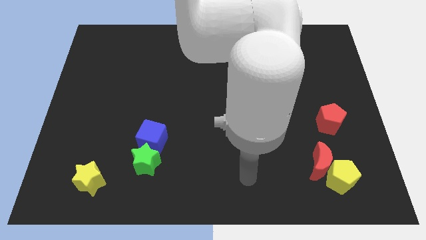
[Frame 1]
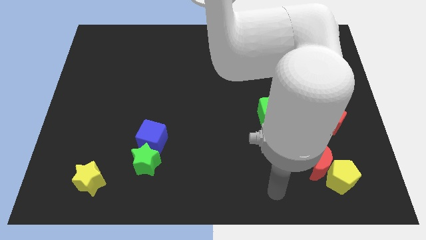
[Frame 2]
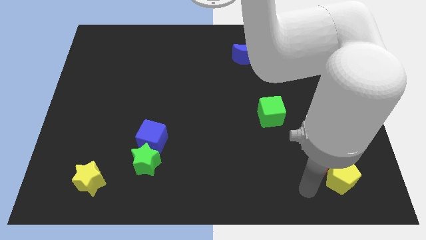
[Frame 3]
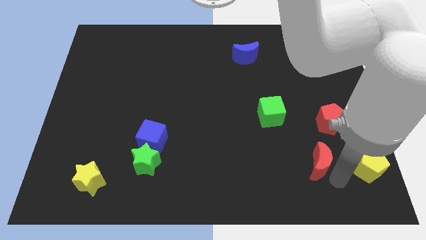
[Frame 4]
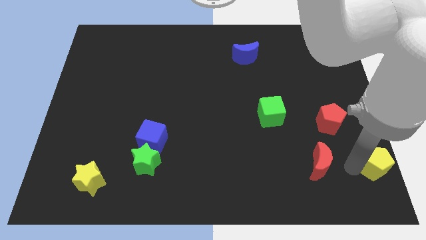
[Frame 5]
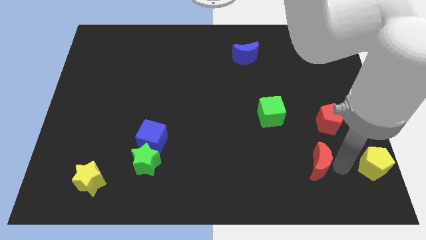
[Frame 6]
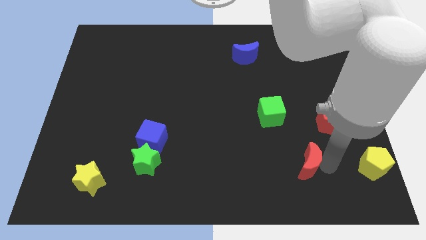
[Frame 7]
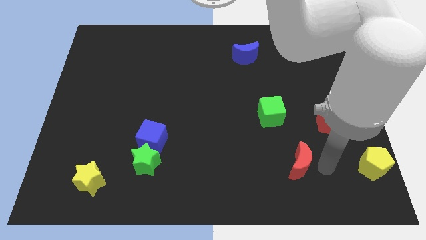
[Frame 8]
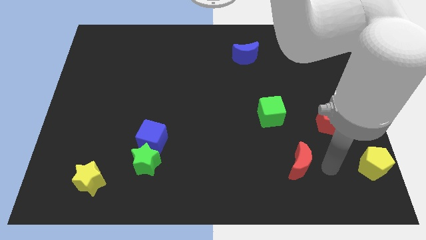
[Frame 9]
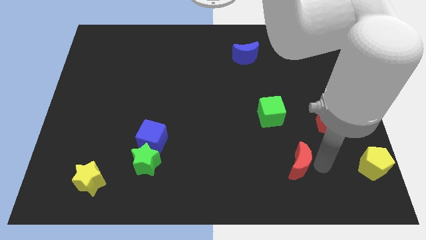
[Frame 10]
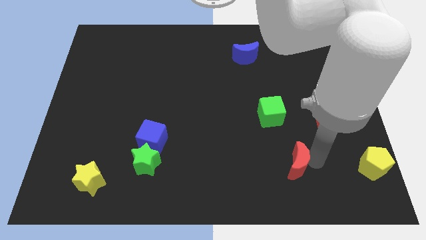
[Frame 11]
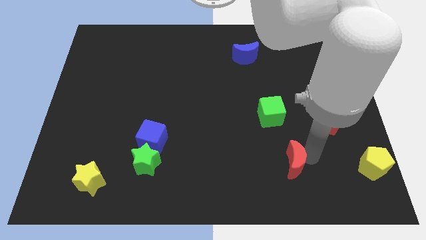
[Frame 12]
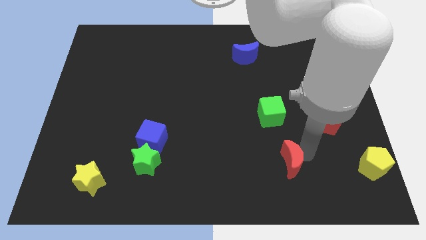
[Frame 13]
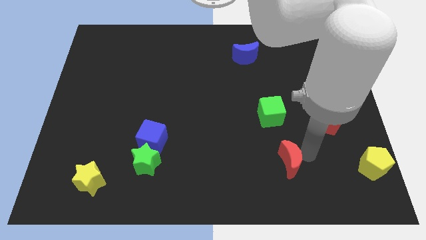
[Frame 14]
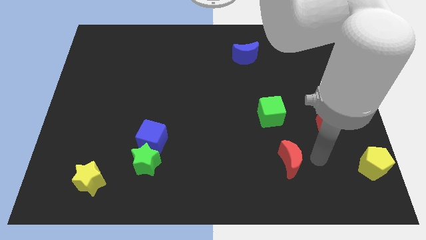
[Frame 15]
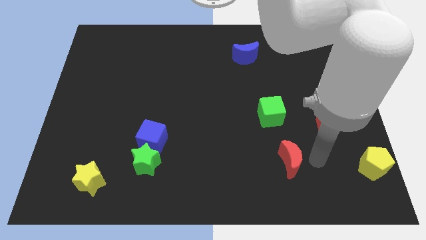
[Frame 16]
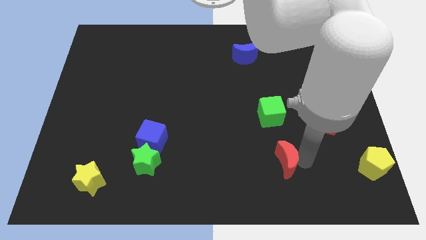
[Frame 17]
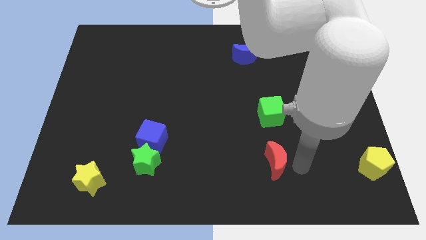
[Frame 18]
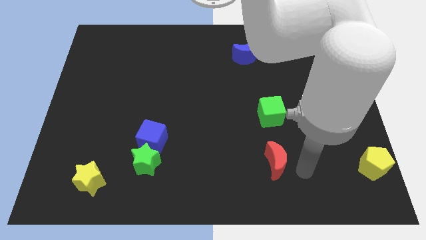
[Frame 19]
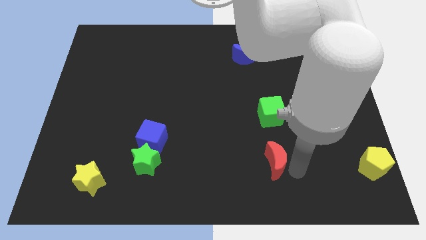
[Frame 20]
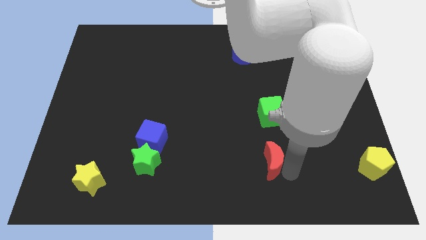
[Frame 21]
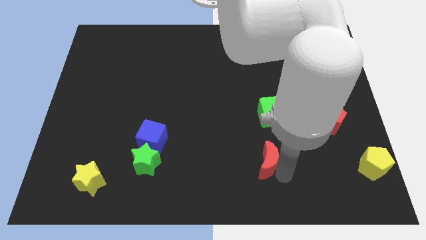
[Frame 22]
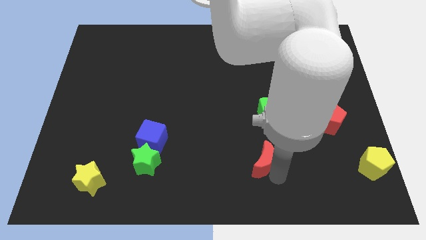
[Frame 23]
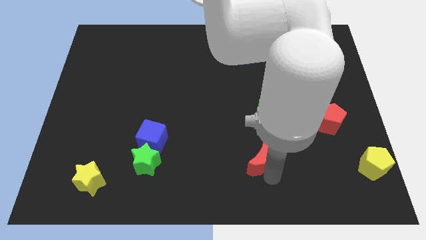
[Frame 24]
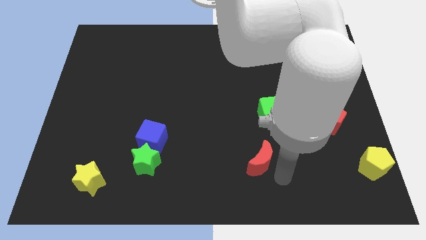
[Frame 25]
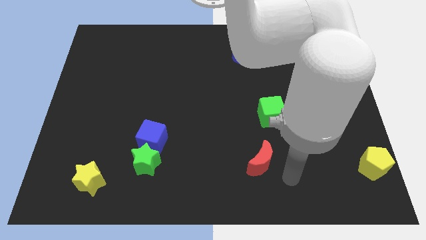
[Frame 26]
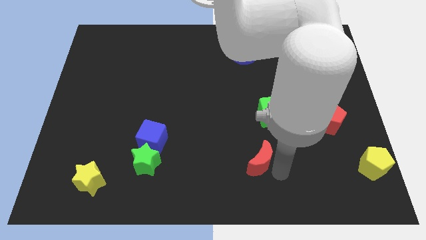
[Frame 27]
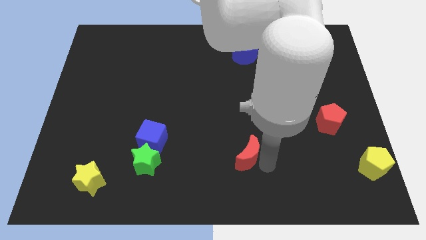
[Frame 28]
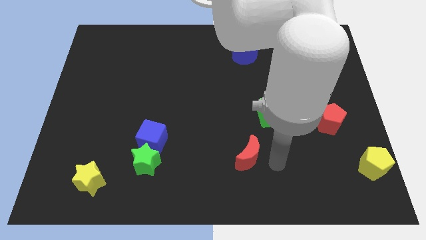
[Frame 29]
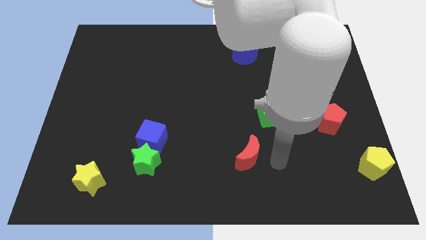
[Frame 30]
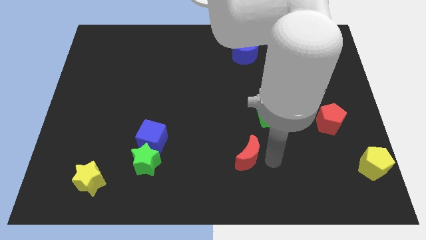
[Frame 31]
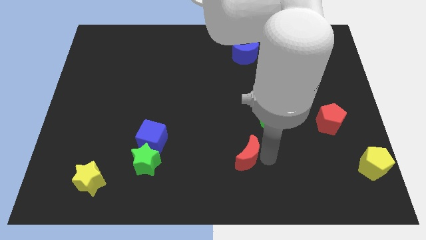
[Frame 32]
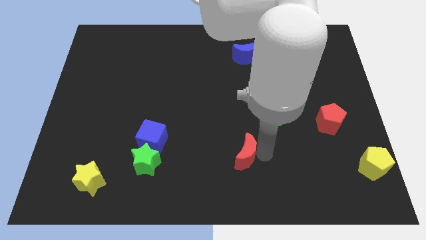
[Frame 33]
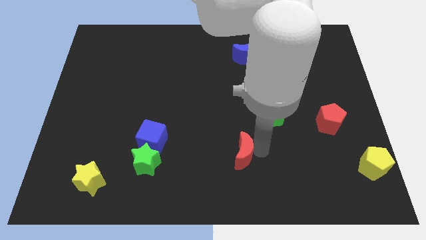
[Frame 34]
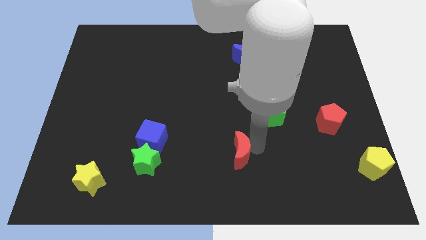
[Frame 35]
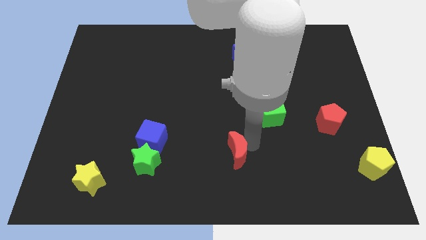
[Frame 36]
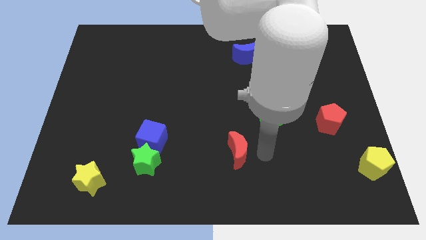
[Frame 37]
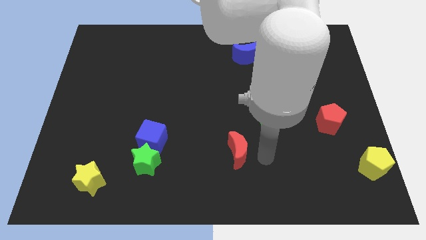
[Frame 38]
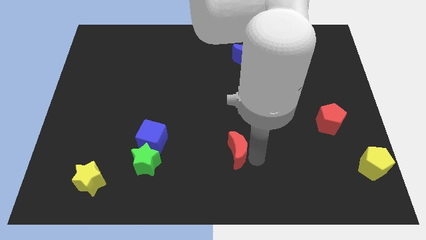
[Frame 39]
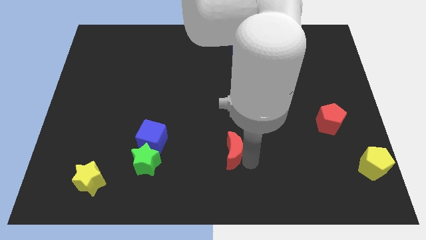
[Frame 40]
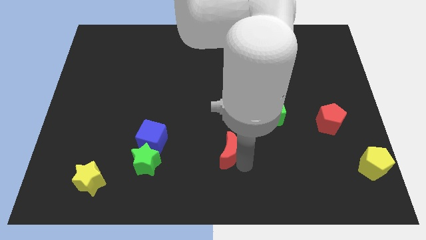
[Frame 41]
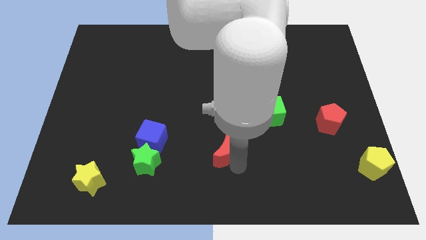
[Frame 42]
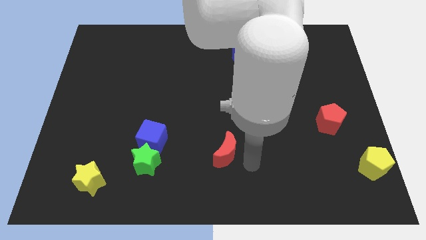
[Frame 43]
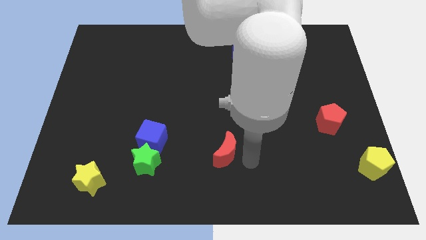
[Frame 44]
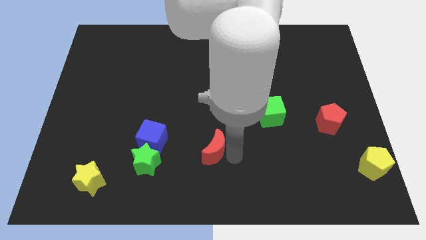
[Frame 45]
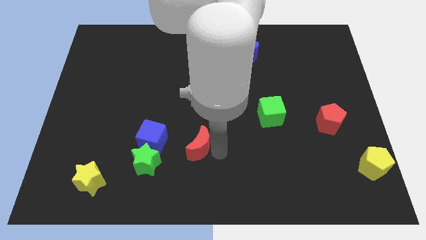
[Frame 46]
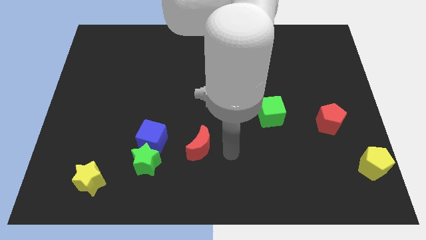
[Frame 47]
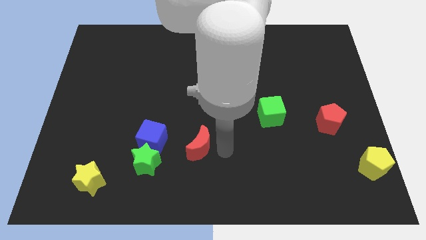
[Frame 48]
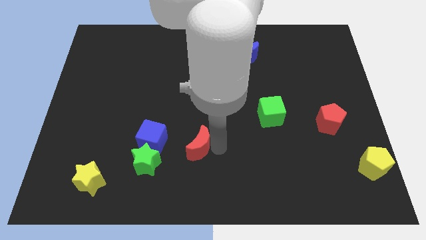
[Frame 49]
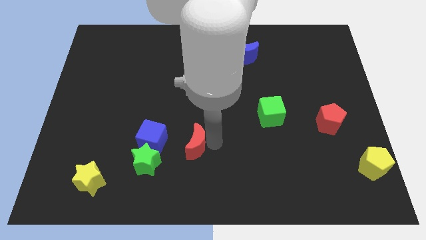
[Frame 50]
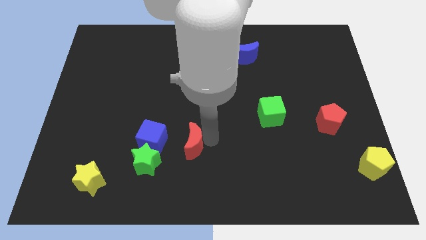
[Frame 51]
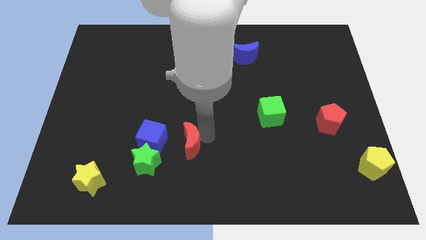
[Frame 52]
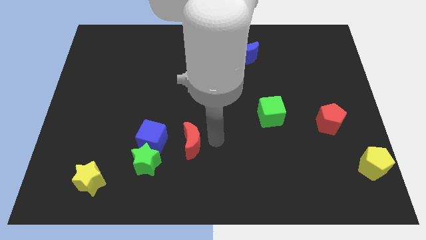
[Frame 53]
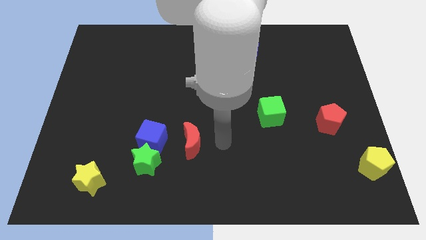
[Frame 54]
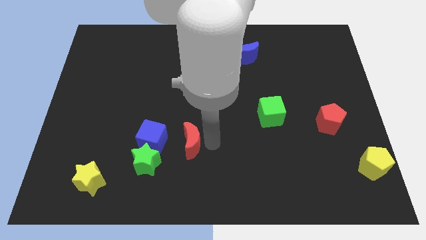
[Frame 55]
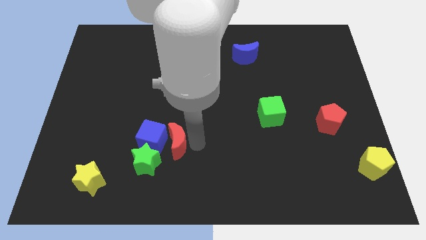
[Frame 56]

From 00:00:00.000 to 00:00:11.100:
put the red moon next to the blue cube

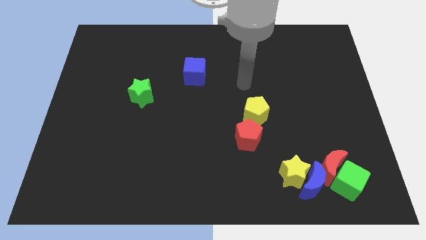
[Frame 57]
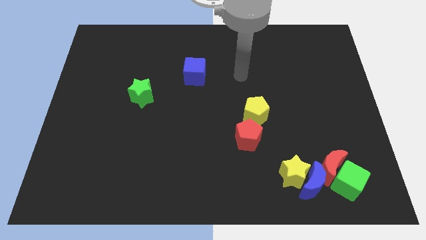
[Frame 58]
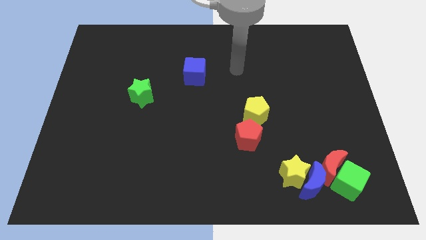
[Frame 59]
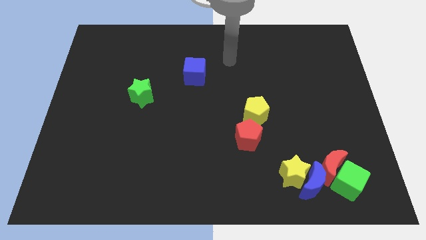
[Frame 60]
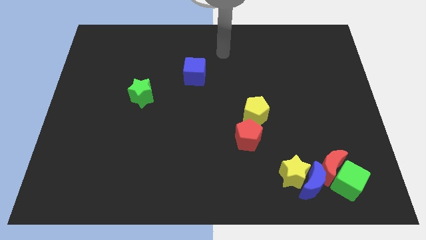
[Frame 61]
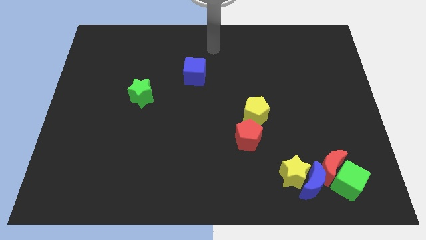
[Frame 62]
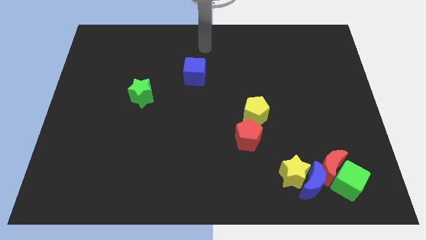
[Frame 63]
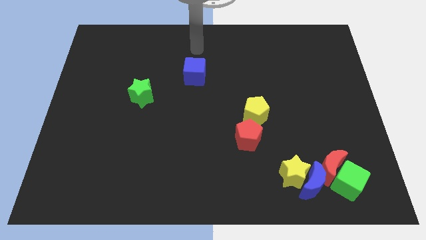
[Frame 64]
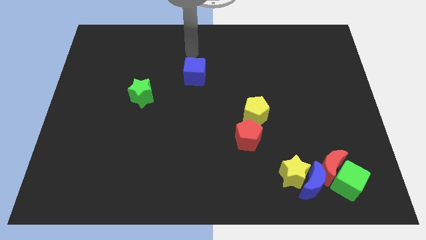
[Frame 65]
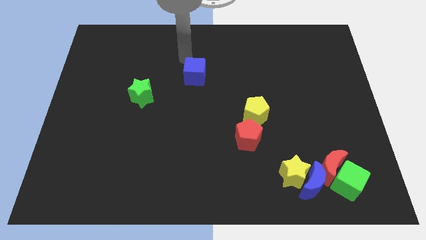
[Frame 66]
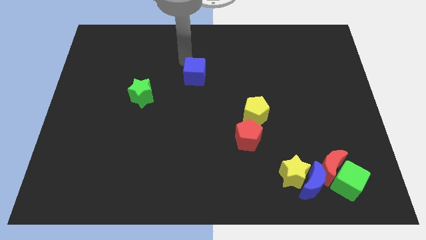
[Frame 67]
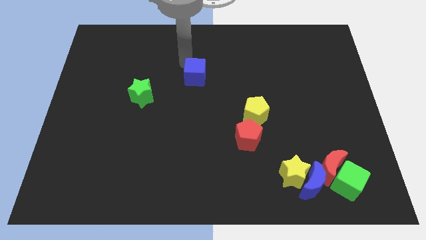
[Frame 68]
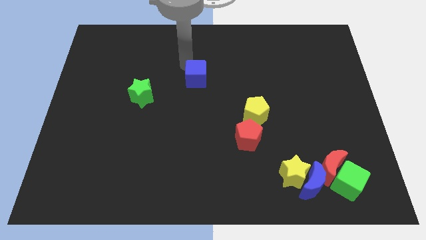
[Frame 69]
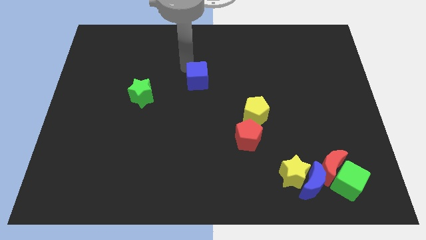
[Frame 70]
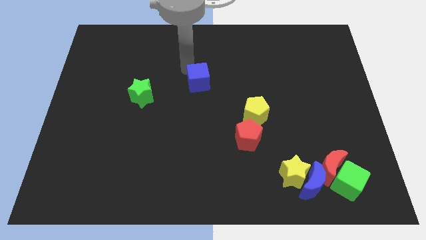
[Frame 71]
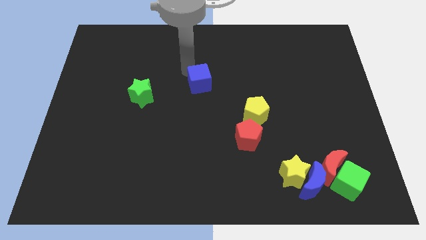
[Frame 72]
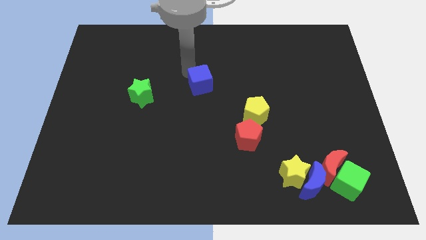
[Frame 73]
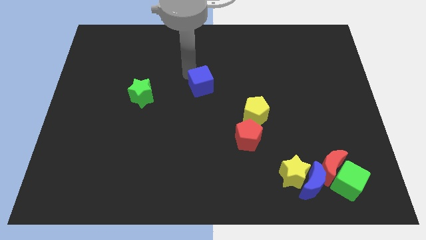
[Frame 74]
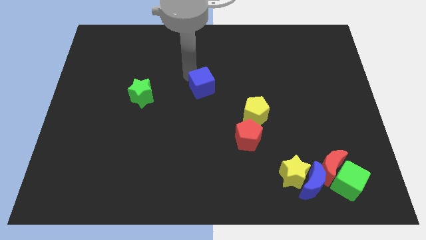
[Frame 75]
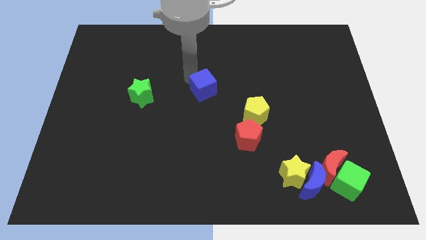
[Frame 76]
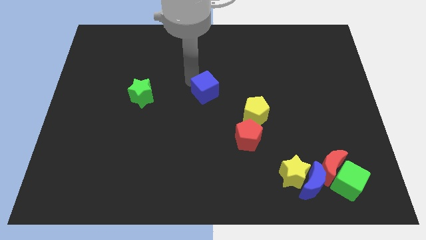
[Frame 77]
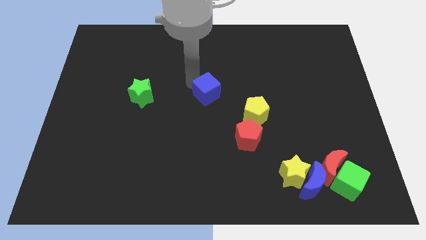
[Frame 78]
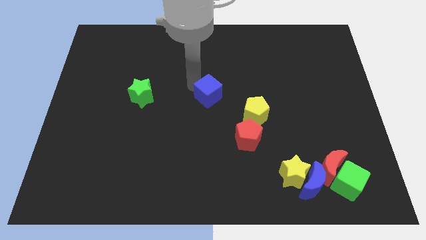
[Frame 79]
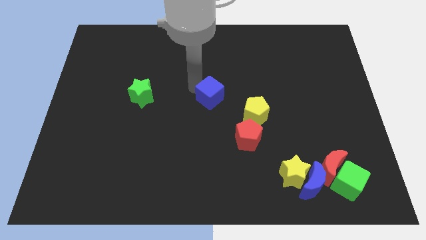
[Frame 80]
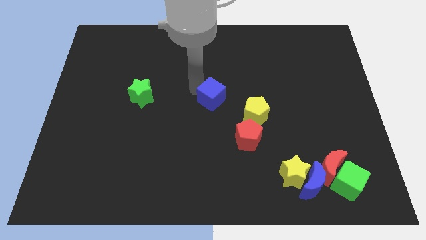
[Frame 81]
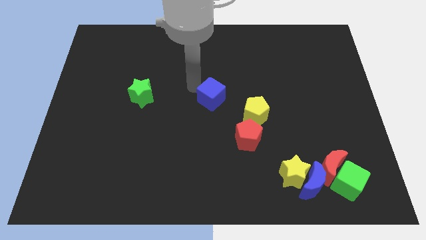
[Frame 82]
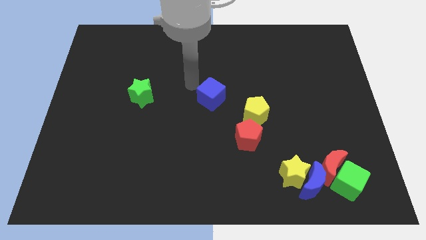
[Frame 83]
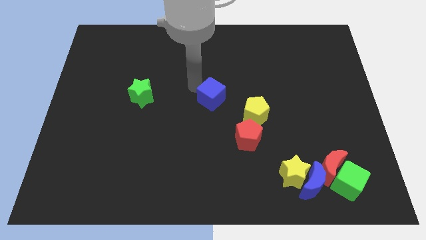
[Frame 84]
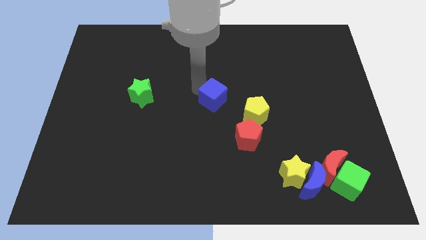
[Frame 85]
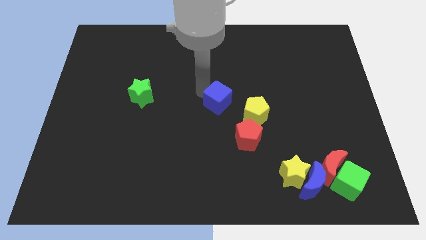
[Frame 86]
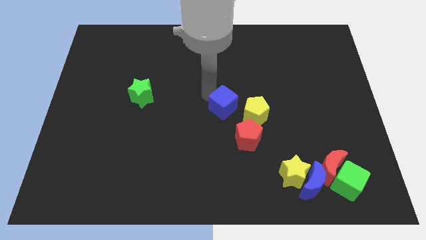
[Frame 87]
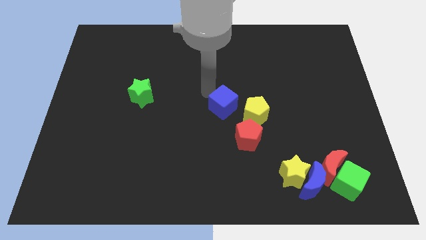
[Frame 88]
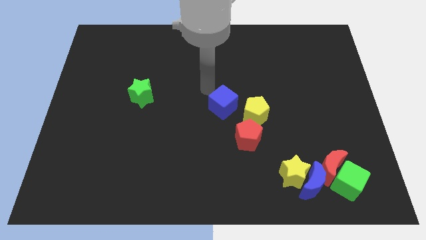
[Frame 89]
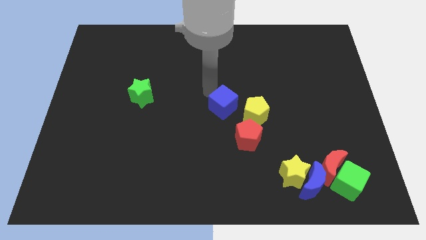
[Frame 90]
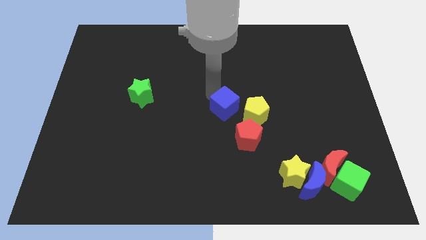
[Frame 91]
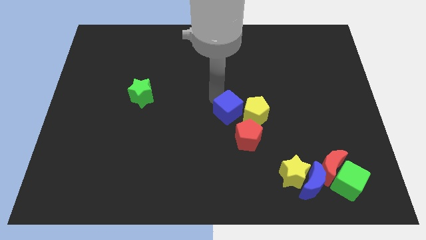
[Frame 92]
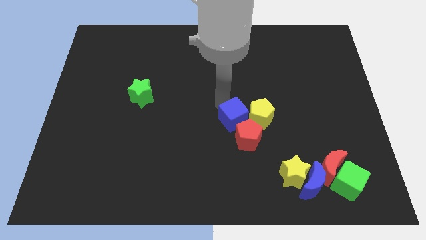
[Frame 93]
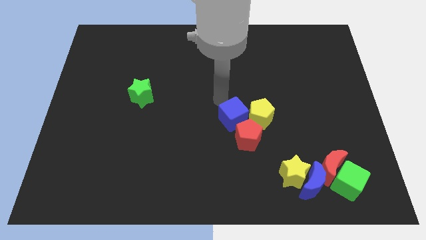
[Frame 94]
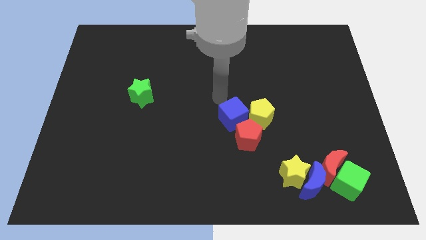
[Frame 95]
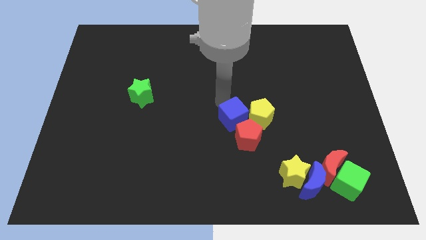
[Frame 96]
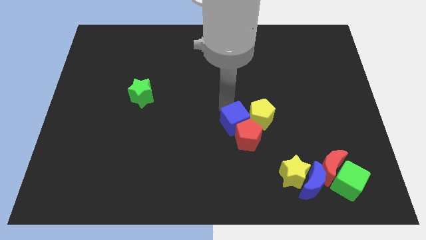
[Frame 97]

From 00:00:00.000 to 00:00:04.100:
slide the blue cube close to the red pentagon
